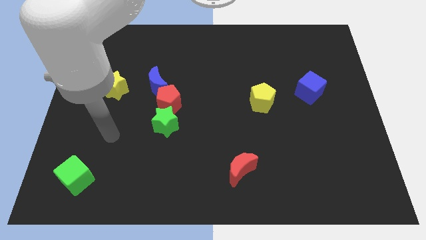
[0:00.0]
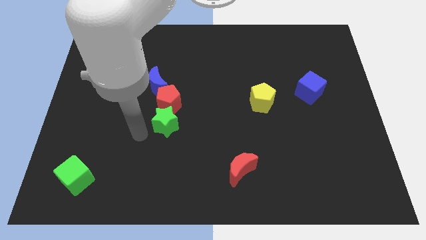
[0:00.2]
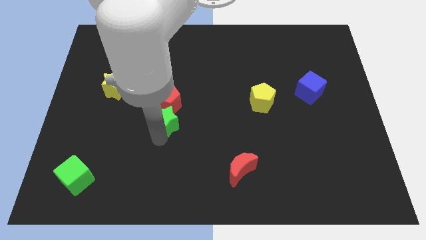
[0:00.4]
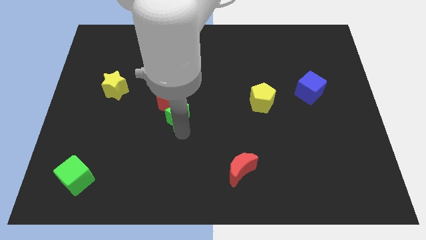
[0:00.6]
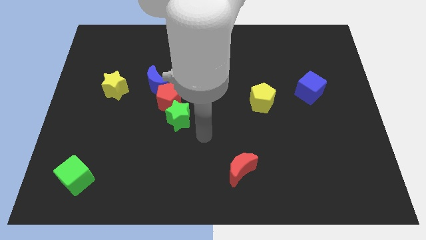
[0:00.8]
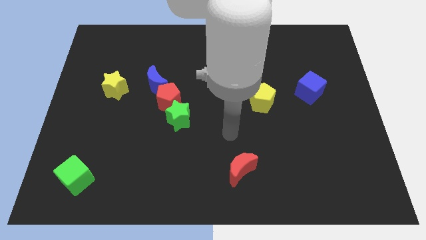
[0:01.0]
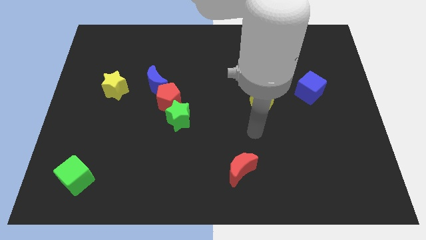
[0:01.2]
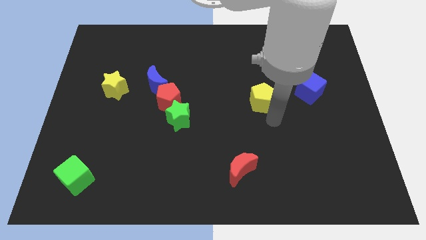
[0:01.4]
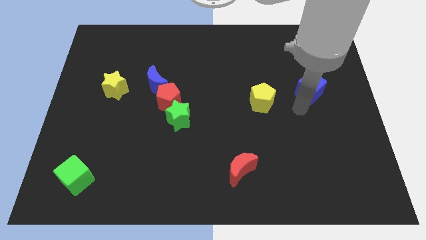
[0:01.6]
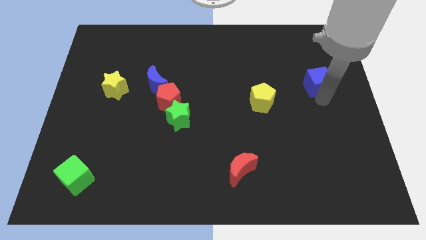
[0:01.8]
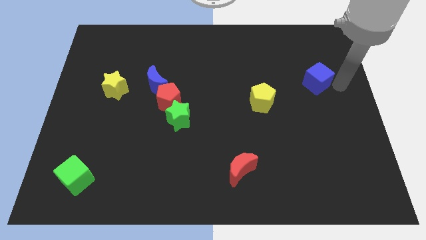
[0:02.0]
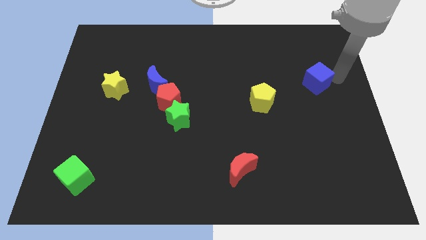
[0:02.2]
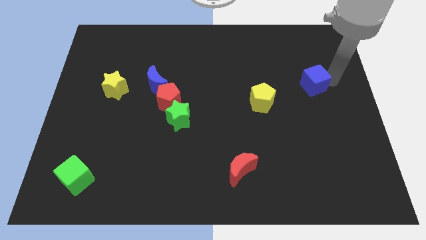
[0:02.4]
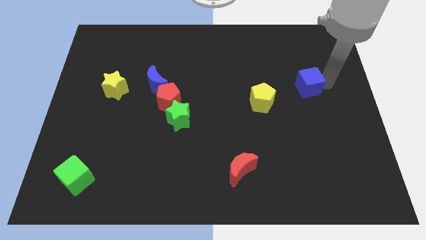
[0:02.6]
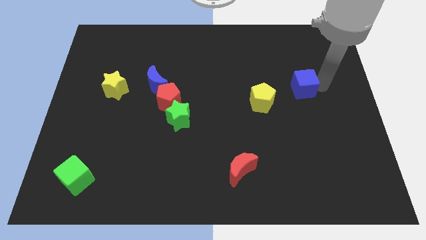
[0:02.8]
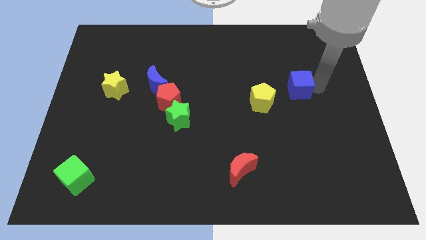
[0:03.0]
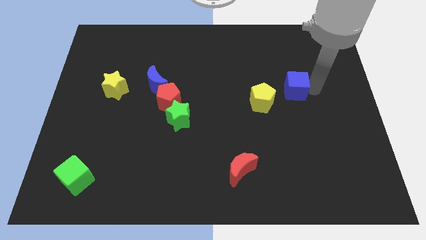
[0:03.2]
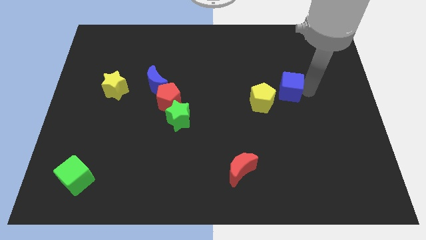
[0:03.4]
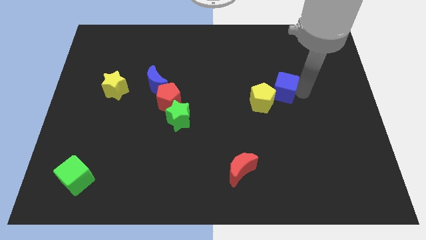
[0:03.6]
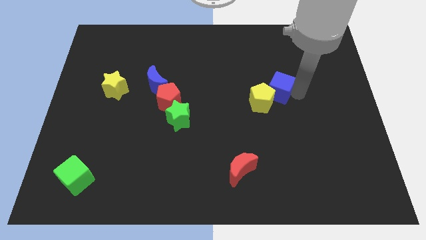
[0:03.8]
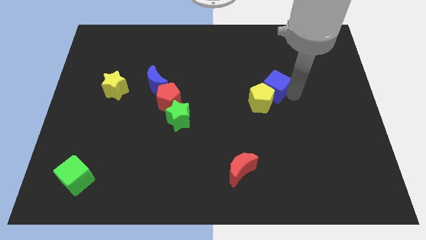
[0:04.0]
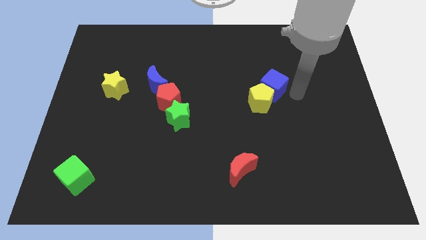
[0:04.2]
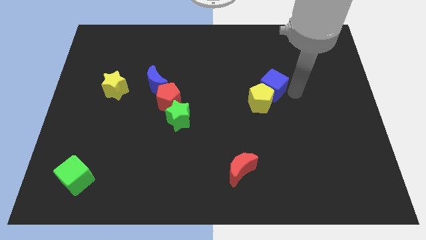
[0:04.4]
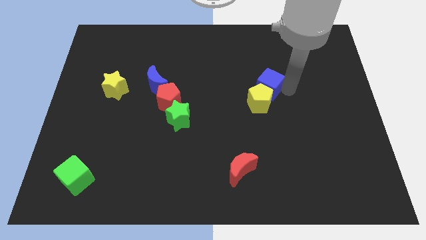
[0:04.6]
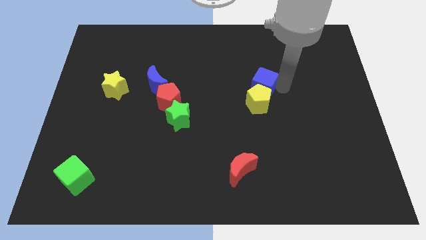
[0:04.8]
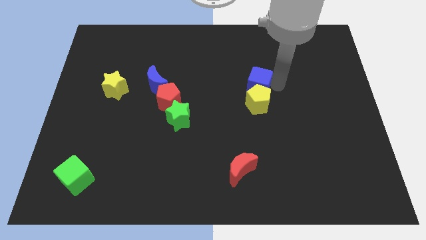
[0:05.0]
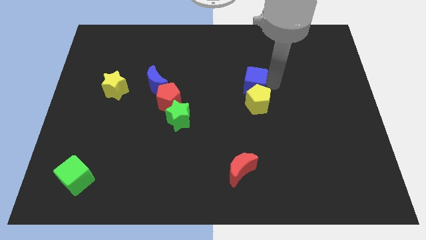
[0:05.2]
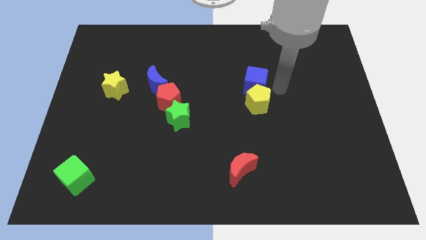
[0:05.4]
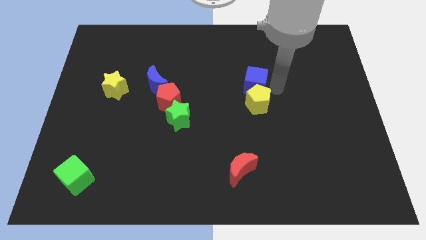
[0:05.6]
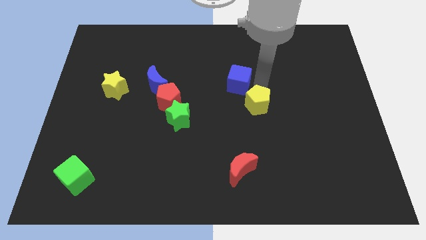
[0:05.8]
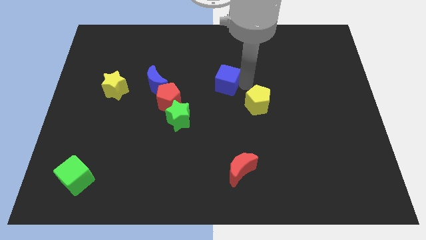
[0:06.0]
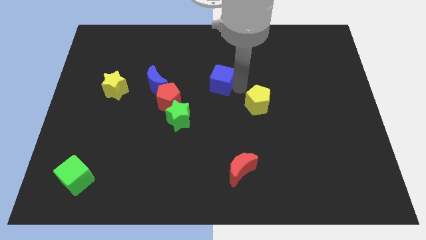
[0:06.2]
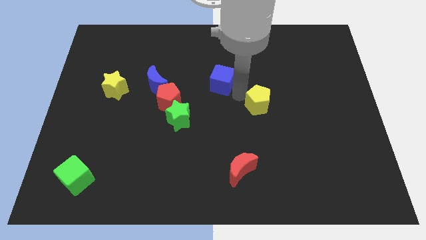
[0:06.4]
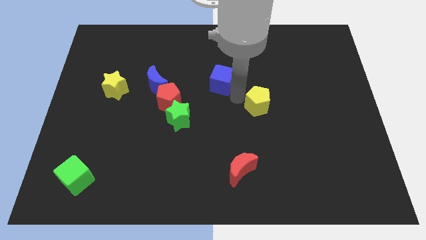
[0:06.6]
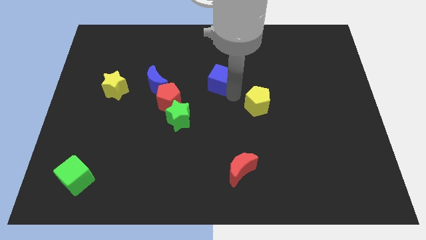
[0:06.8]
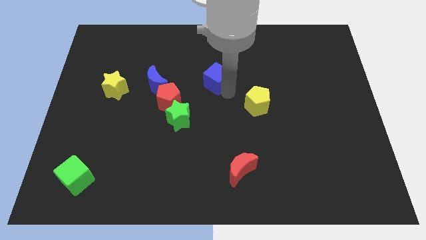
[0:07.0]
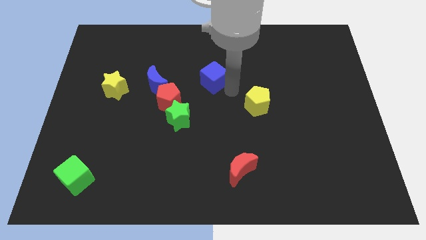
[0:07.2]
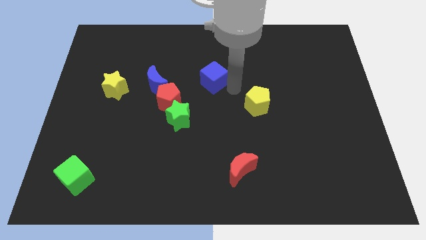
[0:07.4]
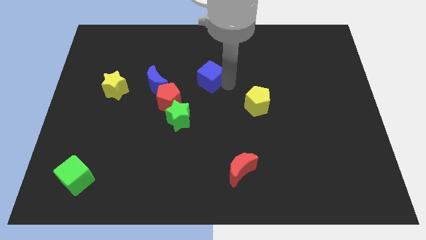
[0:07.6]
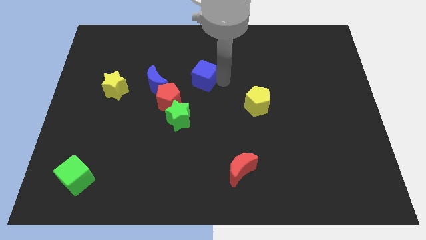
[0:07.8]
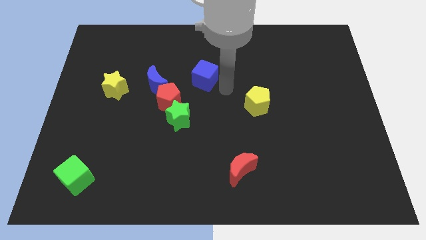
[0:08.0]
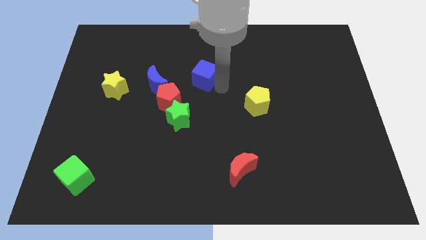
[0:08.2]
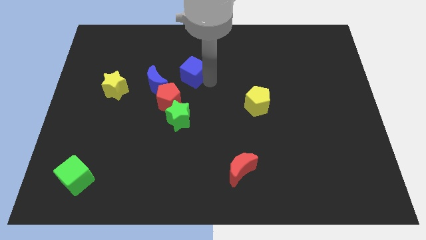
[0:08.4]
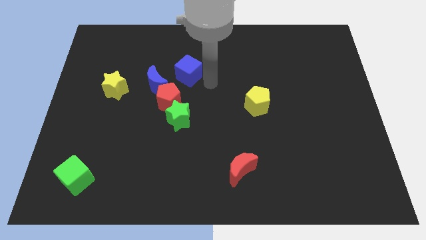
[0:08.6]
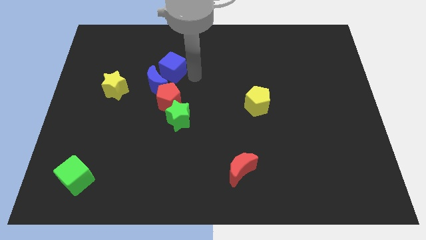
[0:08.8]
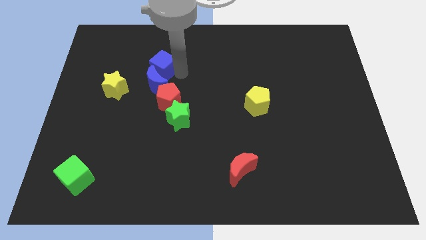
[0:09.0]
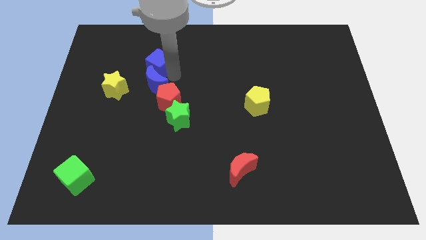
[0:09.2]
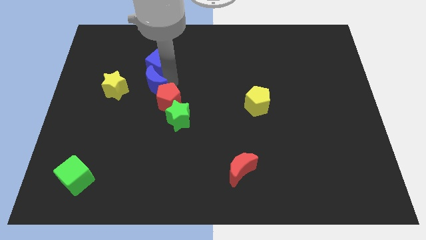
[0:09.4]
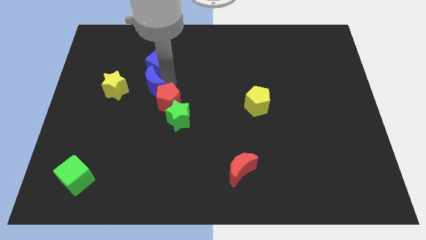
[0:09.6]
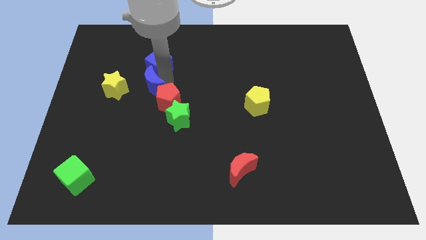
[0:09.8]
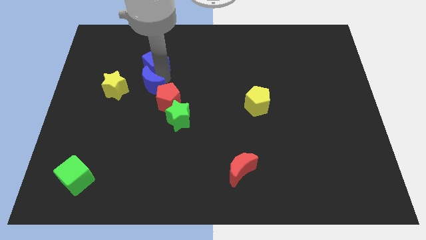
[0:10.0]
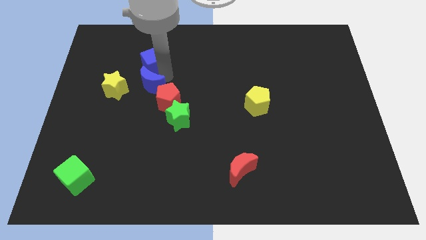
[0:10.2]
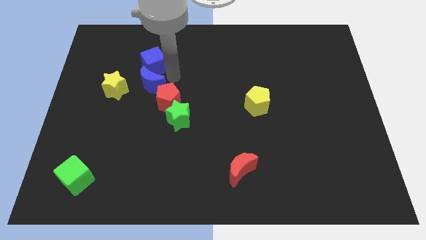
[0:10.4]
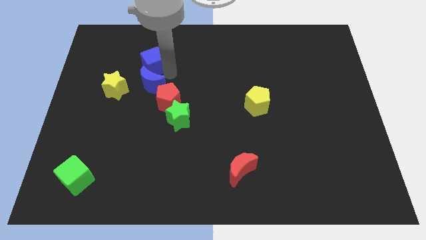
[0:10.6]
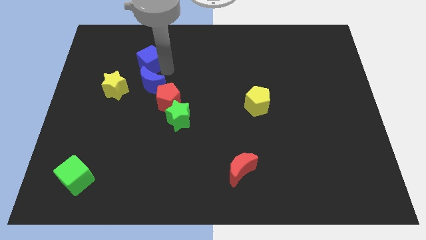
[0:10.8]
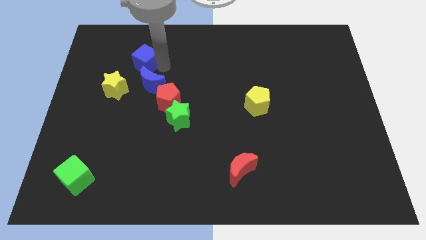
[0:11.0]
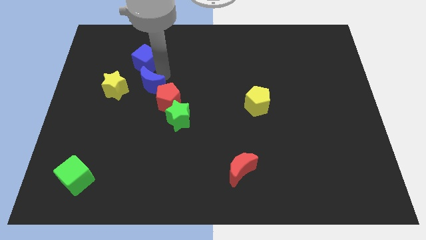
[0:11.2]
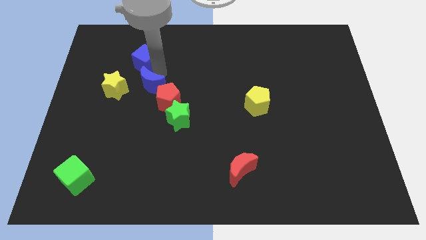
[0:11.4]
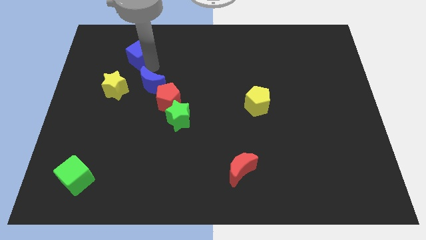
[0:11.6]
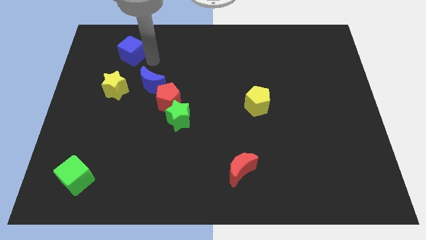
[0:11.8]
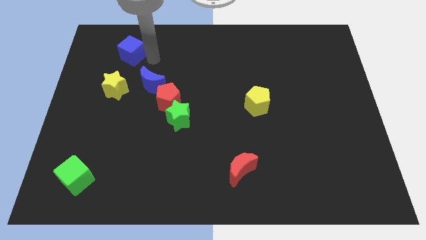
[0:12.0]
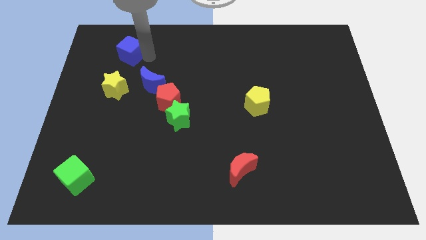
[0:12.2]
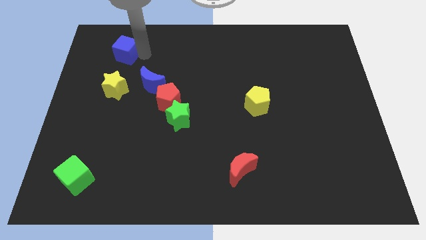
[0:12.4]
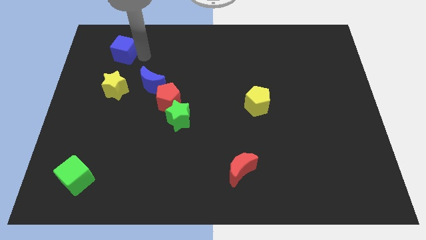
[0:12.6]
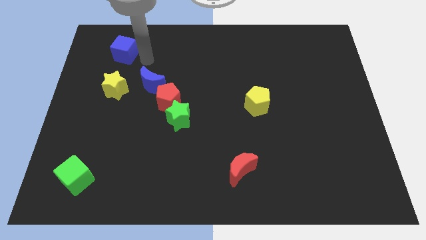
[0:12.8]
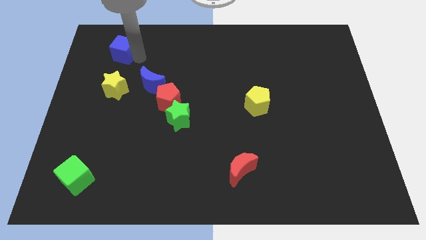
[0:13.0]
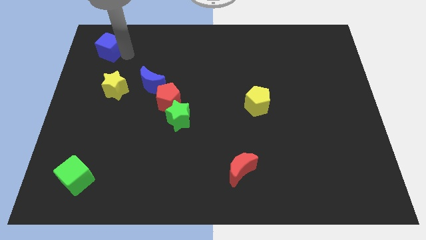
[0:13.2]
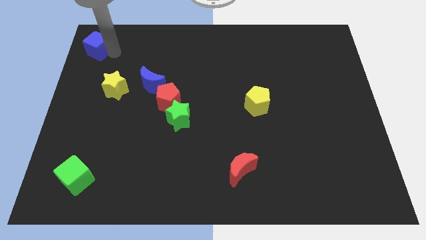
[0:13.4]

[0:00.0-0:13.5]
move the blue cube to the upper left corner
